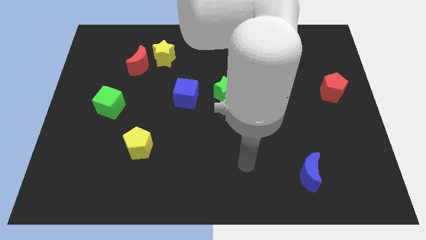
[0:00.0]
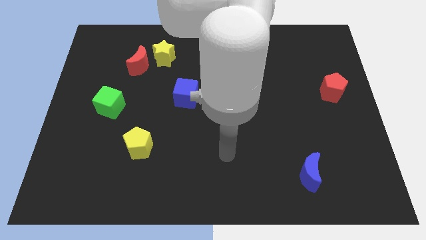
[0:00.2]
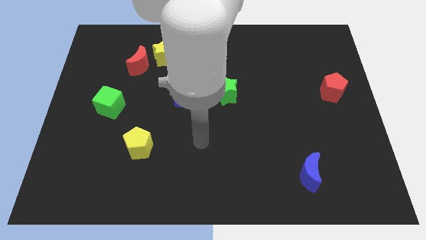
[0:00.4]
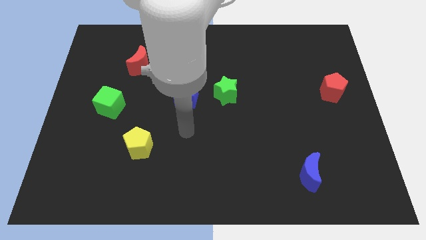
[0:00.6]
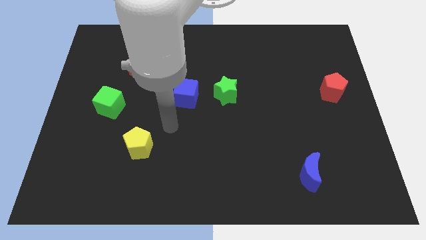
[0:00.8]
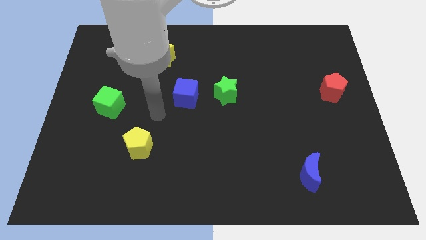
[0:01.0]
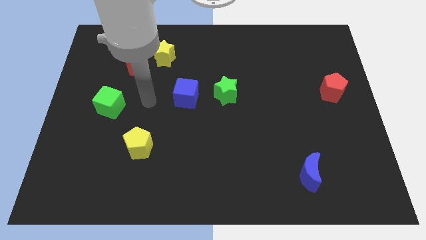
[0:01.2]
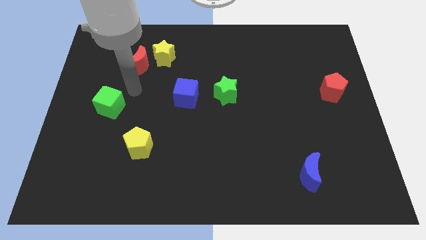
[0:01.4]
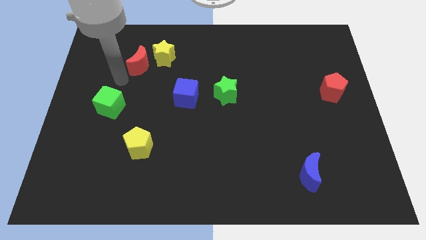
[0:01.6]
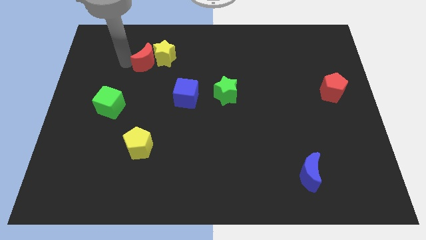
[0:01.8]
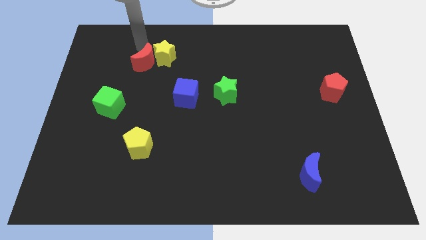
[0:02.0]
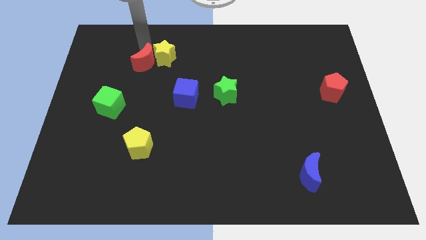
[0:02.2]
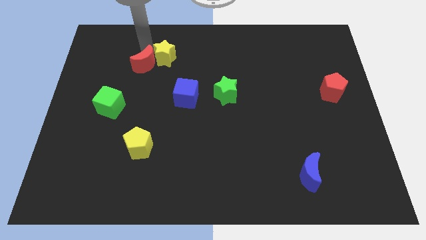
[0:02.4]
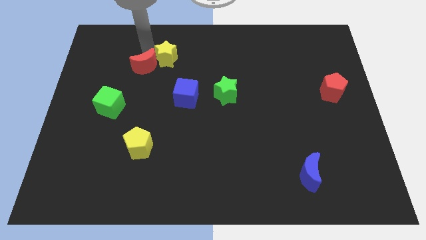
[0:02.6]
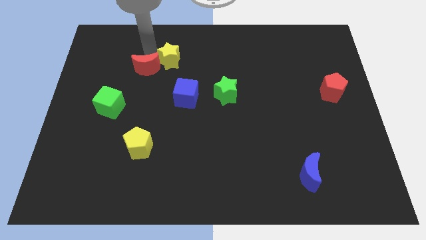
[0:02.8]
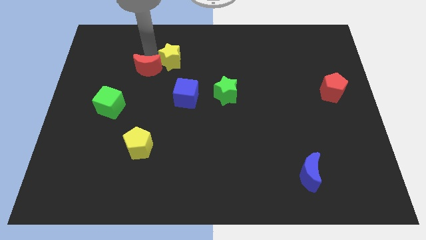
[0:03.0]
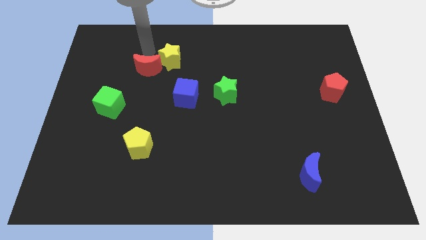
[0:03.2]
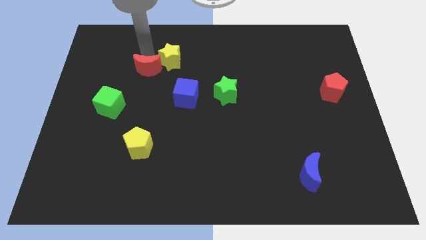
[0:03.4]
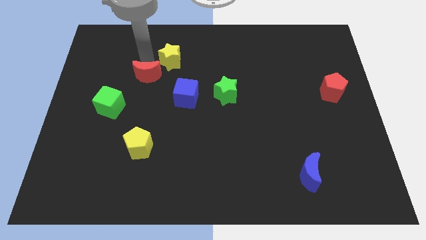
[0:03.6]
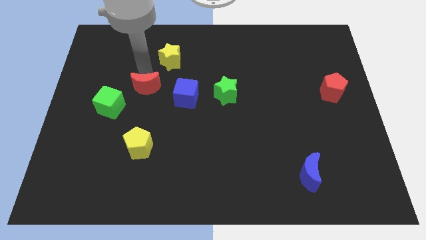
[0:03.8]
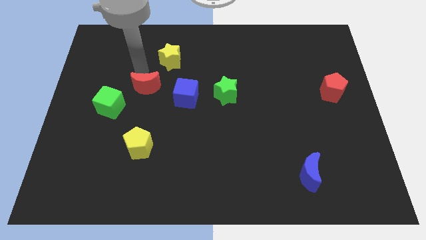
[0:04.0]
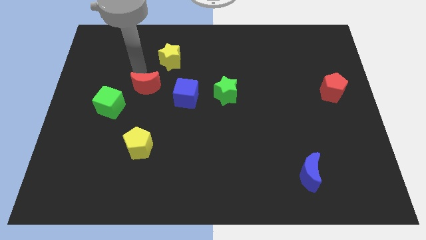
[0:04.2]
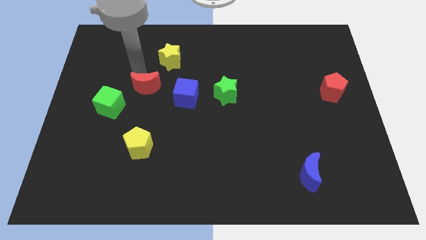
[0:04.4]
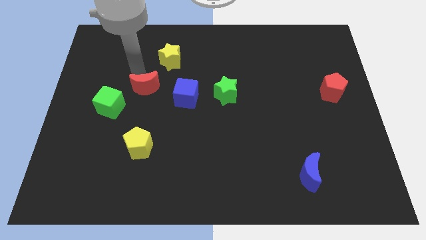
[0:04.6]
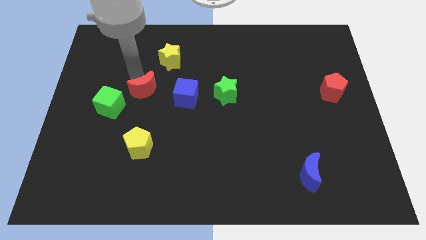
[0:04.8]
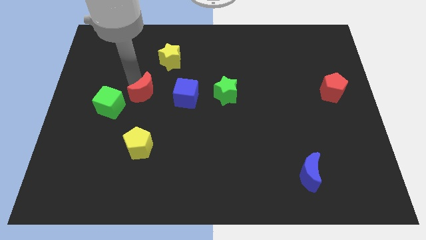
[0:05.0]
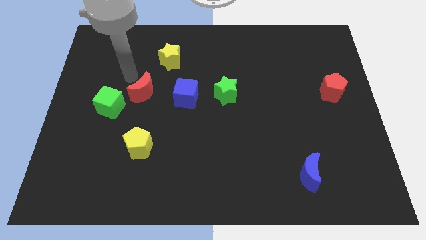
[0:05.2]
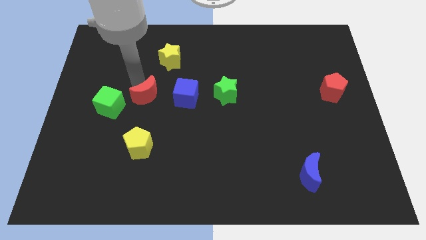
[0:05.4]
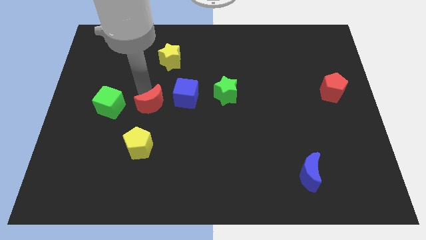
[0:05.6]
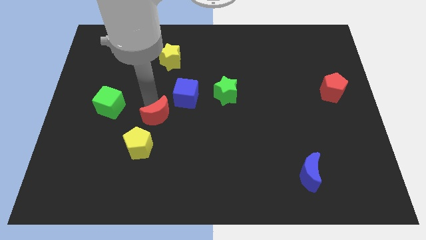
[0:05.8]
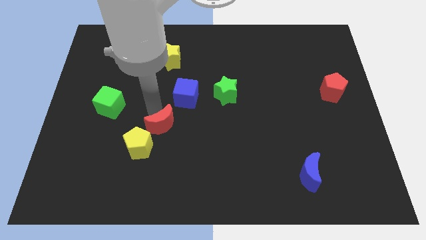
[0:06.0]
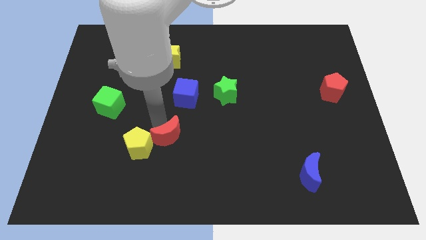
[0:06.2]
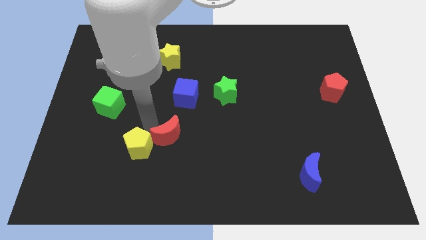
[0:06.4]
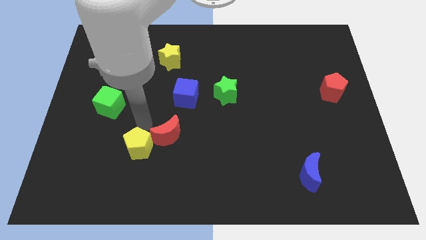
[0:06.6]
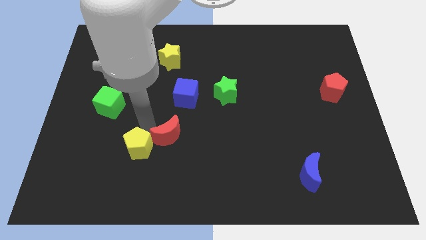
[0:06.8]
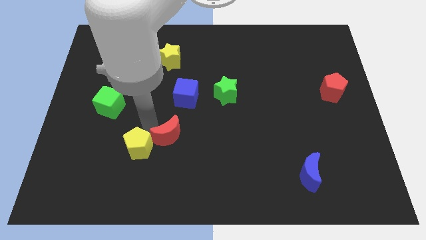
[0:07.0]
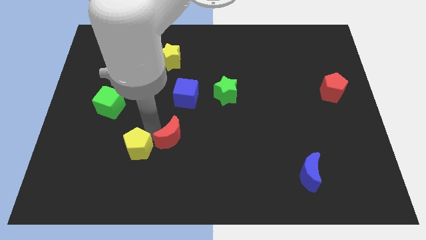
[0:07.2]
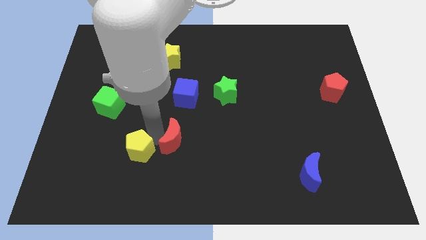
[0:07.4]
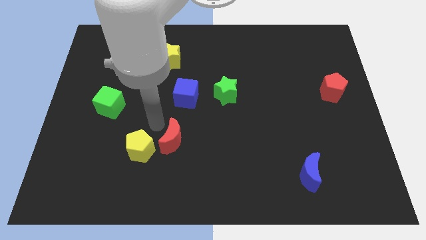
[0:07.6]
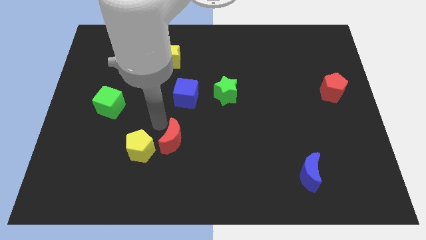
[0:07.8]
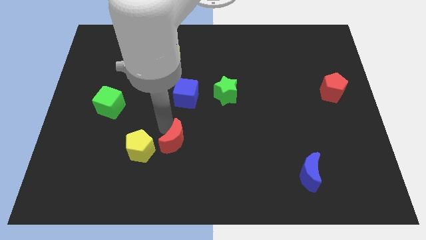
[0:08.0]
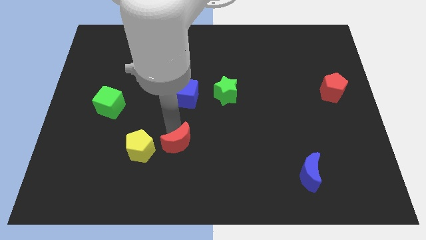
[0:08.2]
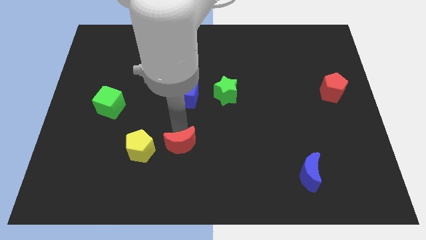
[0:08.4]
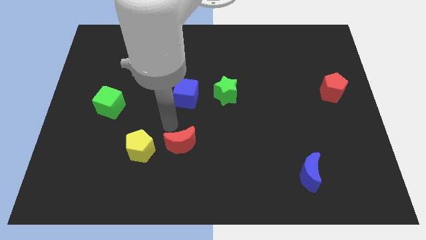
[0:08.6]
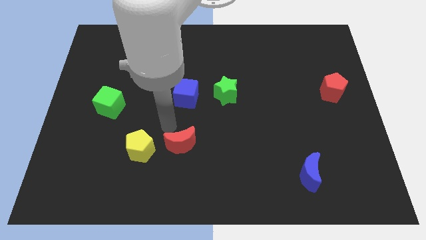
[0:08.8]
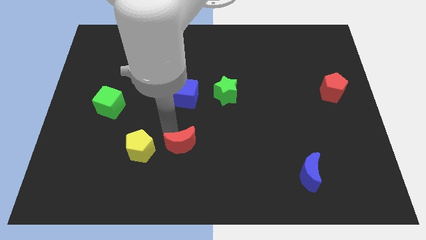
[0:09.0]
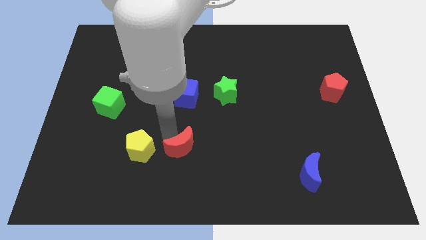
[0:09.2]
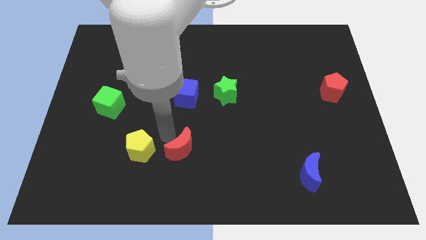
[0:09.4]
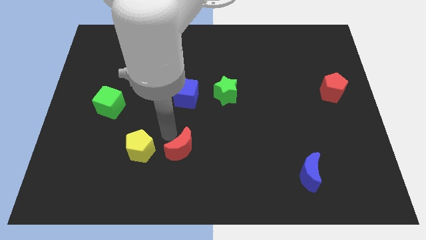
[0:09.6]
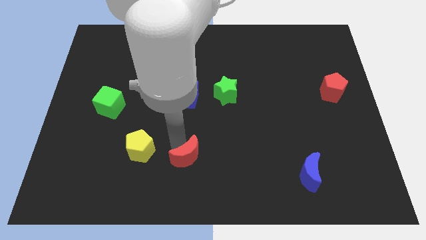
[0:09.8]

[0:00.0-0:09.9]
slide the red moon to the bottom

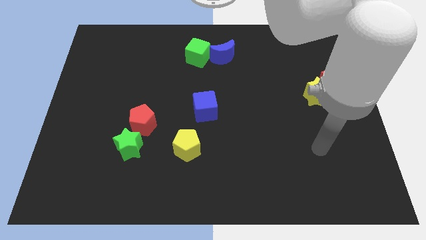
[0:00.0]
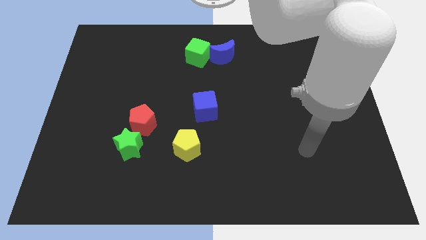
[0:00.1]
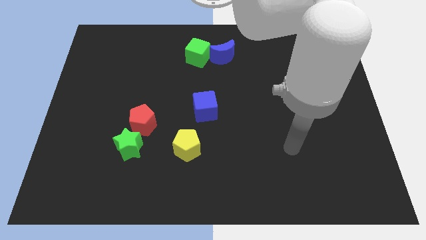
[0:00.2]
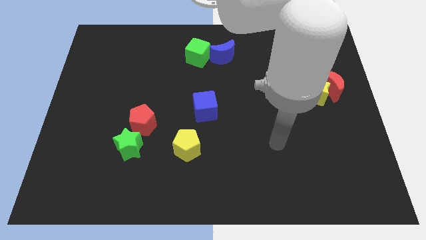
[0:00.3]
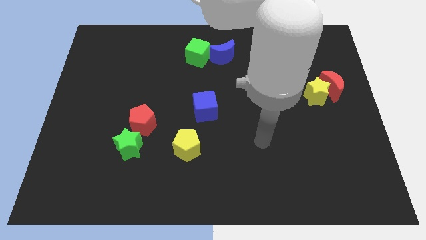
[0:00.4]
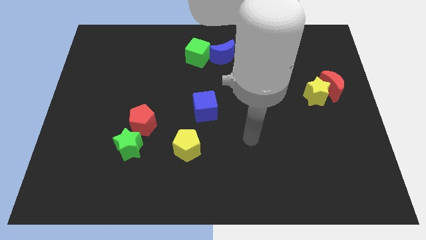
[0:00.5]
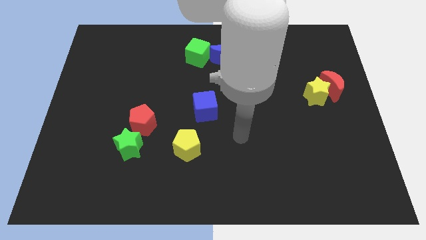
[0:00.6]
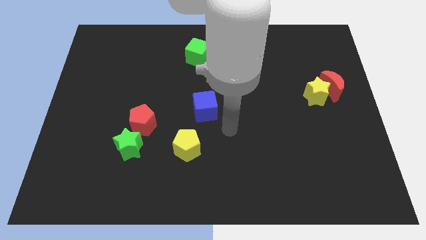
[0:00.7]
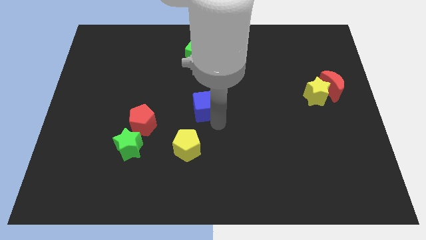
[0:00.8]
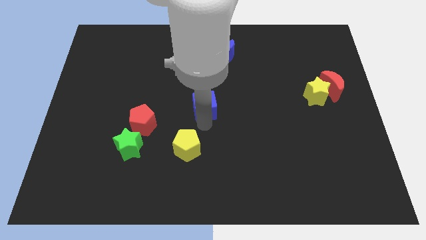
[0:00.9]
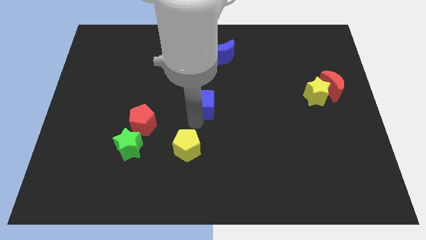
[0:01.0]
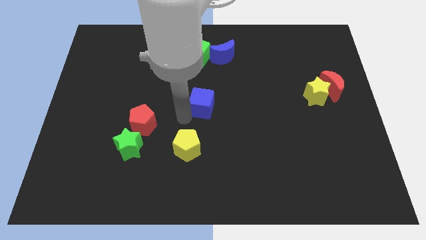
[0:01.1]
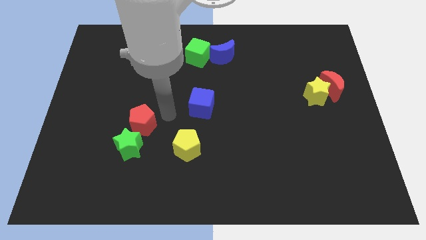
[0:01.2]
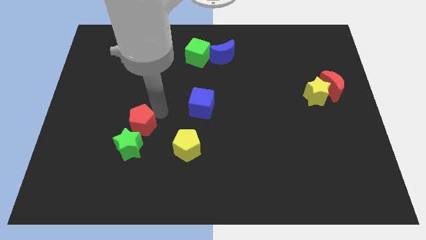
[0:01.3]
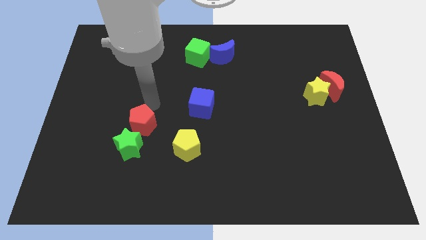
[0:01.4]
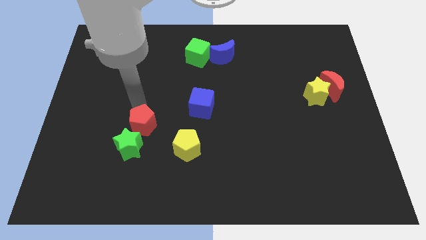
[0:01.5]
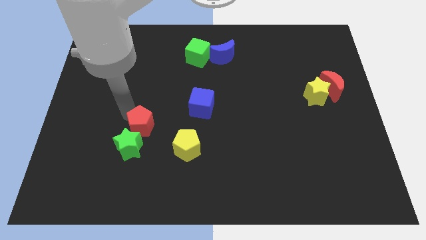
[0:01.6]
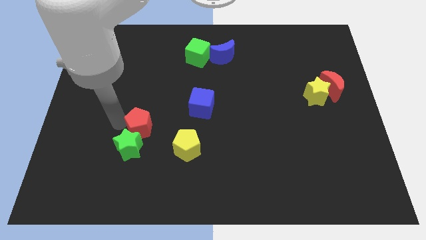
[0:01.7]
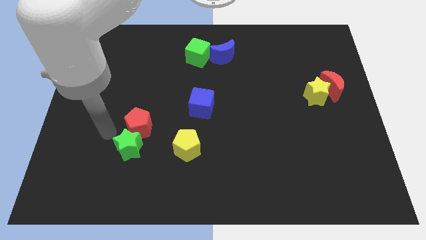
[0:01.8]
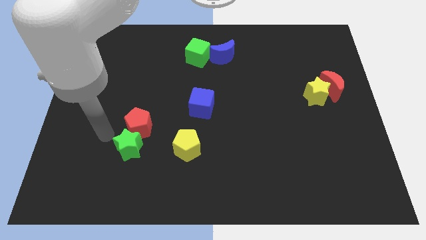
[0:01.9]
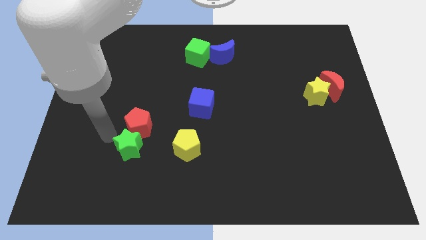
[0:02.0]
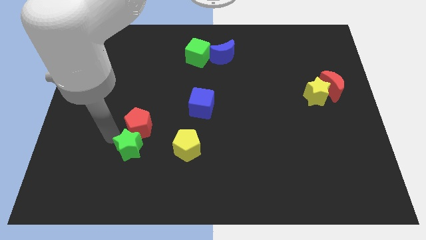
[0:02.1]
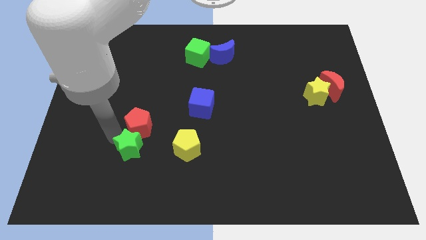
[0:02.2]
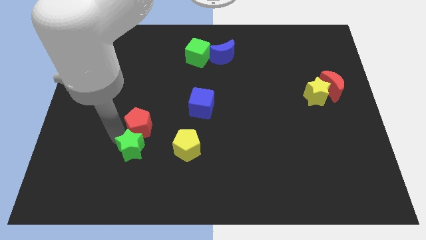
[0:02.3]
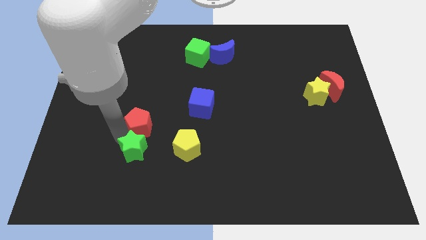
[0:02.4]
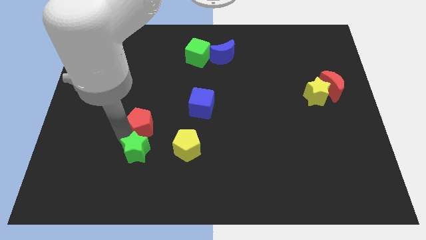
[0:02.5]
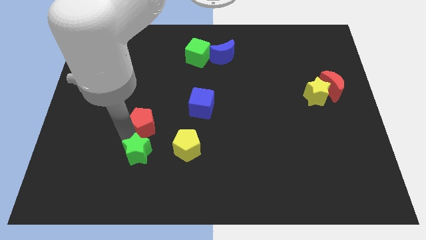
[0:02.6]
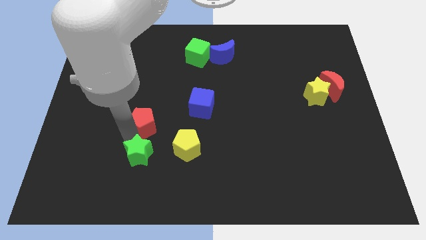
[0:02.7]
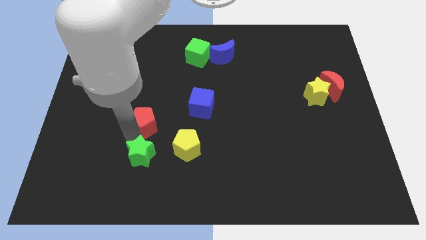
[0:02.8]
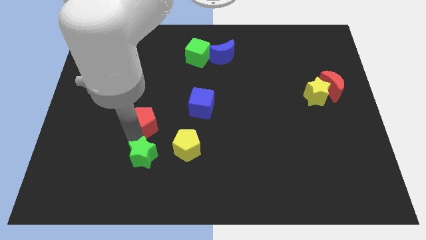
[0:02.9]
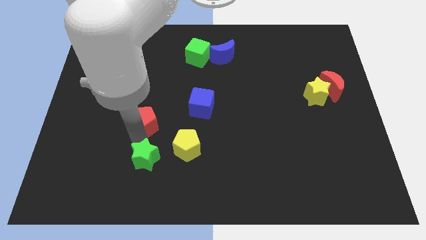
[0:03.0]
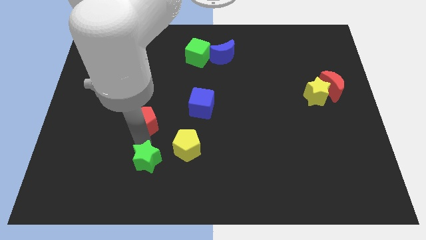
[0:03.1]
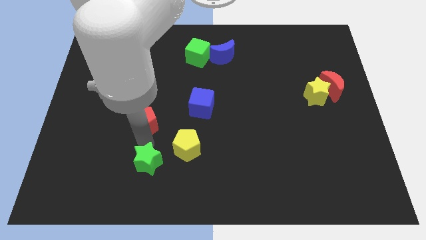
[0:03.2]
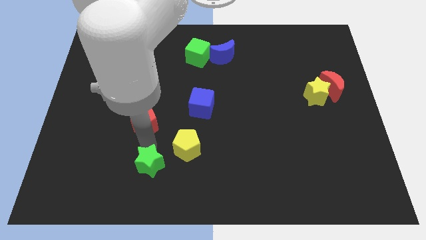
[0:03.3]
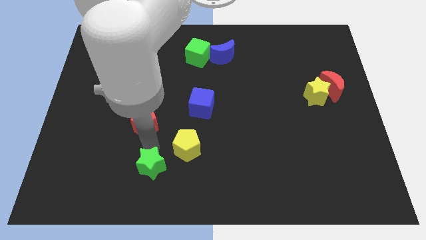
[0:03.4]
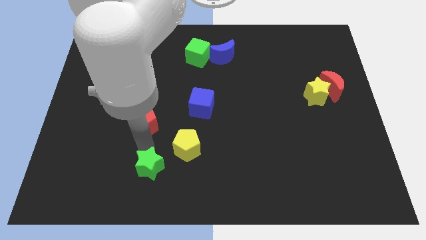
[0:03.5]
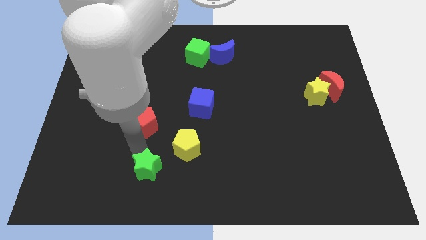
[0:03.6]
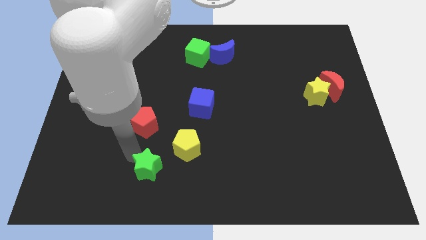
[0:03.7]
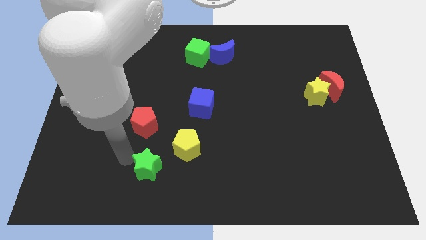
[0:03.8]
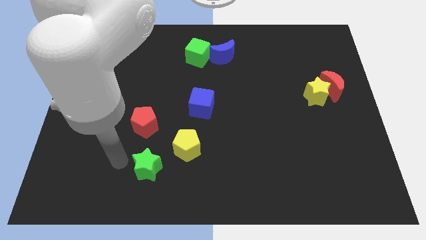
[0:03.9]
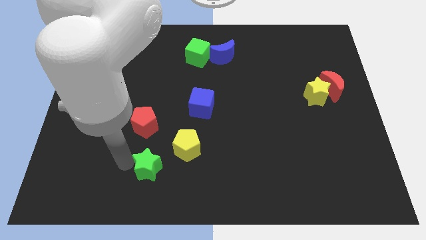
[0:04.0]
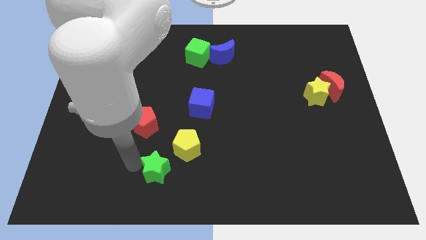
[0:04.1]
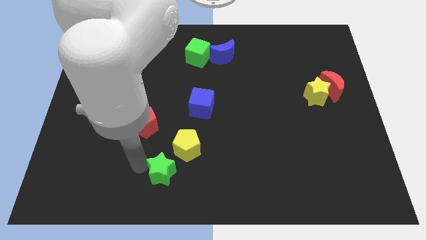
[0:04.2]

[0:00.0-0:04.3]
move the green star to the bottom
